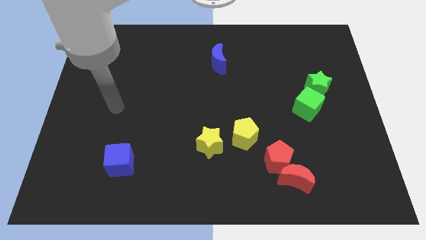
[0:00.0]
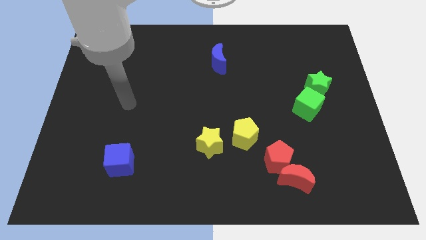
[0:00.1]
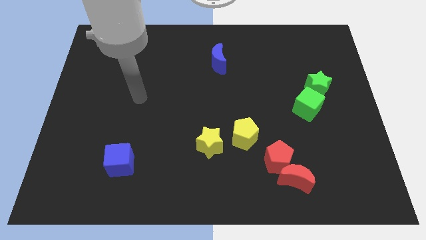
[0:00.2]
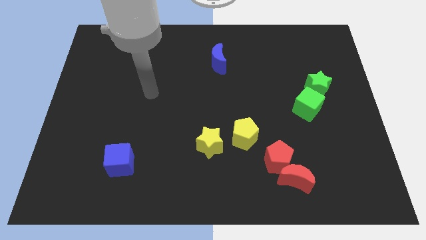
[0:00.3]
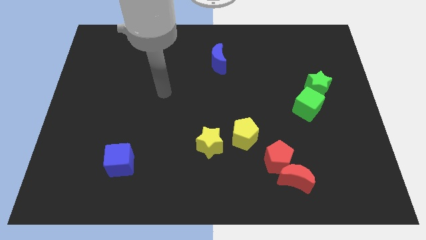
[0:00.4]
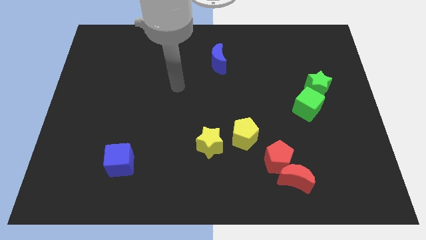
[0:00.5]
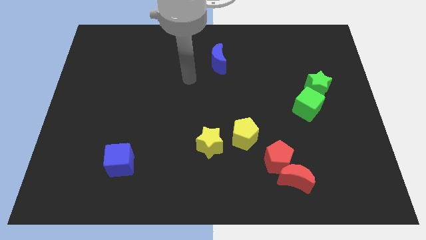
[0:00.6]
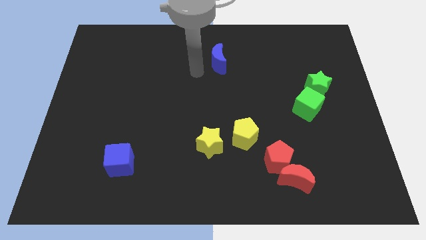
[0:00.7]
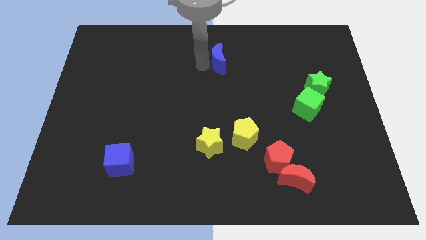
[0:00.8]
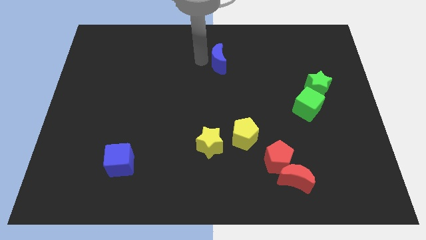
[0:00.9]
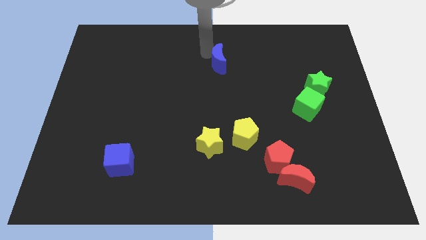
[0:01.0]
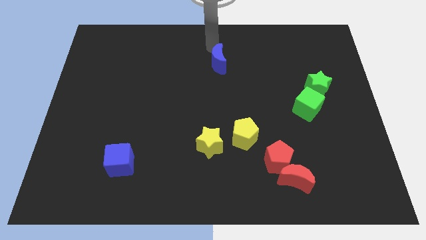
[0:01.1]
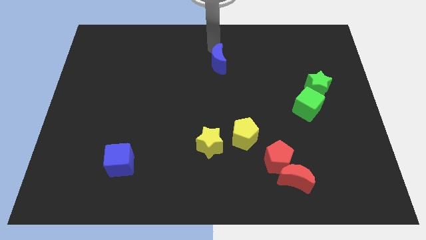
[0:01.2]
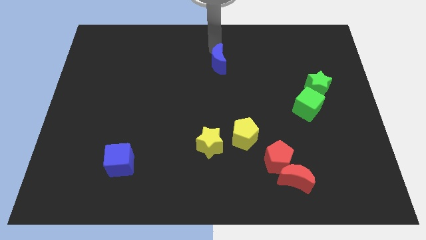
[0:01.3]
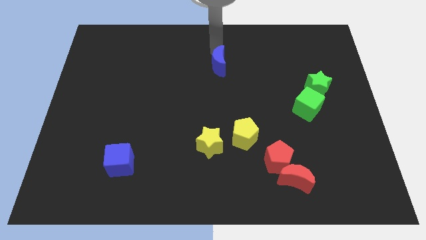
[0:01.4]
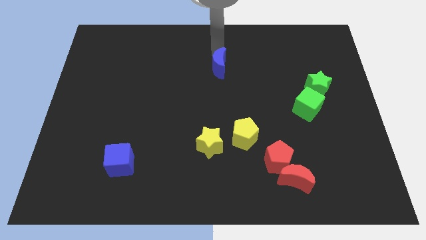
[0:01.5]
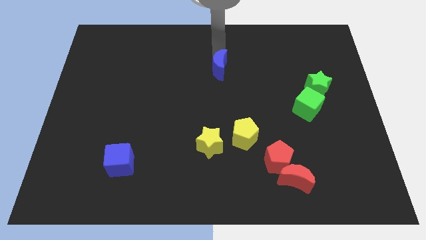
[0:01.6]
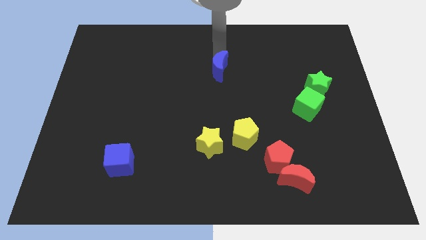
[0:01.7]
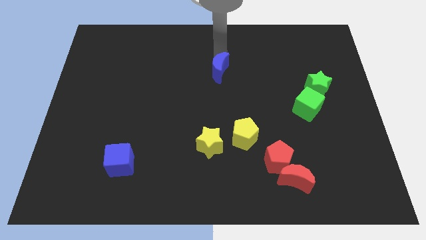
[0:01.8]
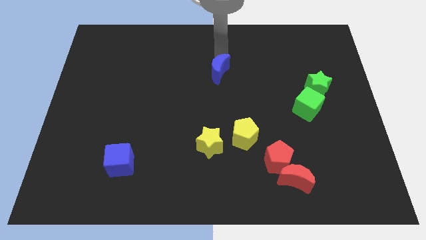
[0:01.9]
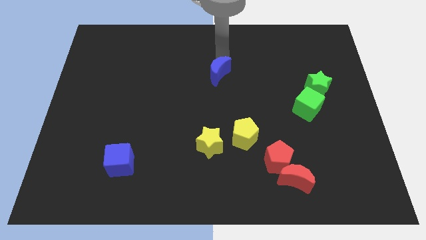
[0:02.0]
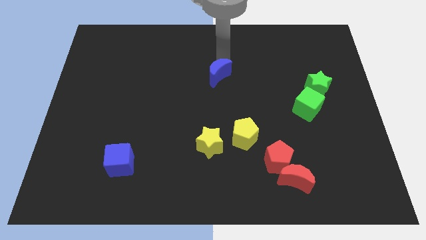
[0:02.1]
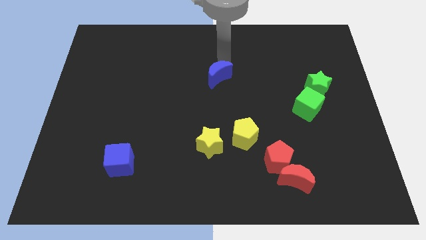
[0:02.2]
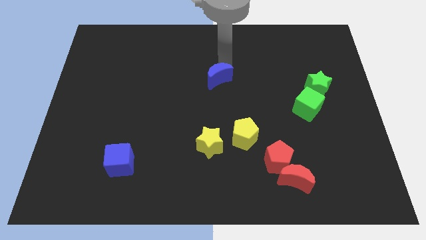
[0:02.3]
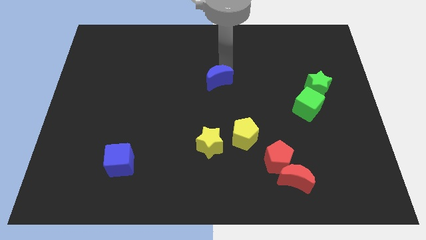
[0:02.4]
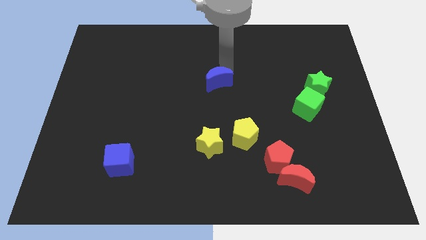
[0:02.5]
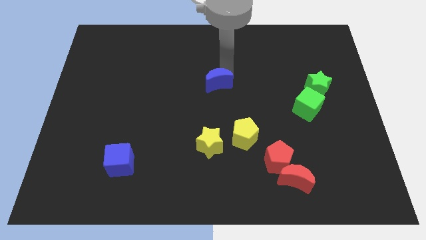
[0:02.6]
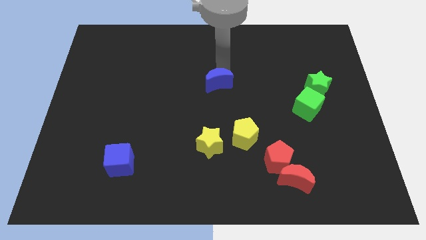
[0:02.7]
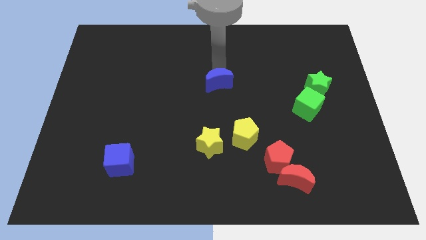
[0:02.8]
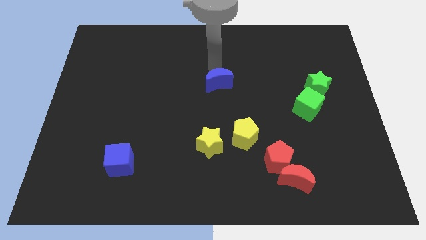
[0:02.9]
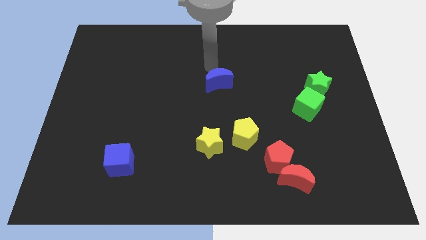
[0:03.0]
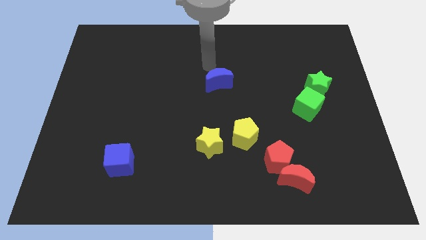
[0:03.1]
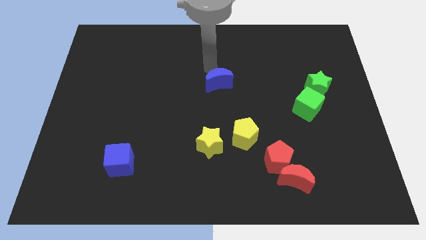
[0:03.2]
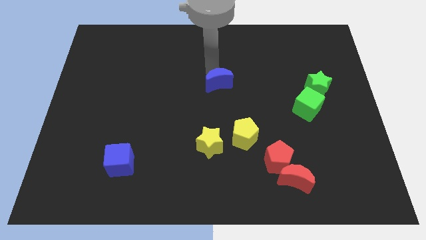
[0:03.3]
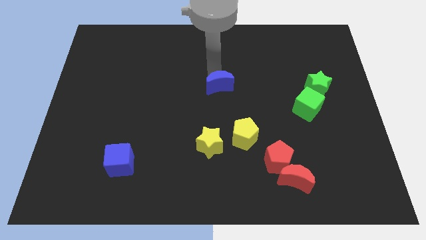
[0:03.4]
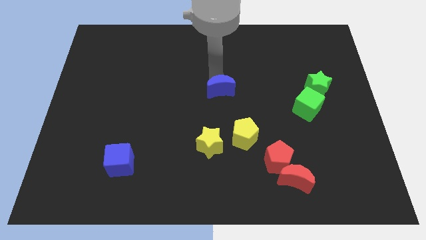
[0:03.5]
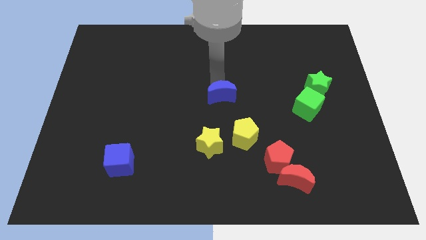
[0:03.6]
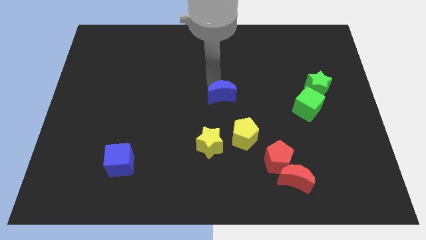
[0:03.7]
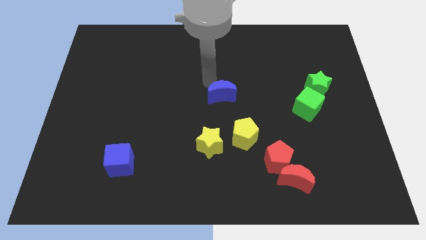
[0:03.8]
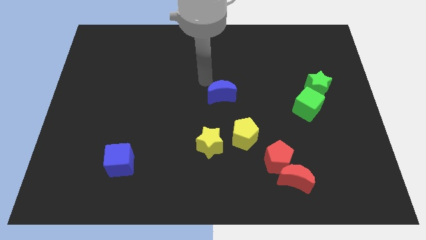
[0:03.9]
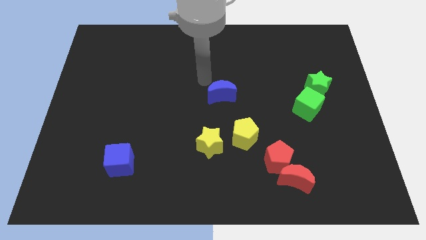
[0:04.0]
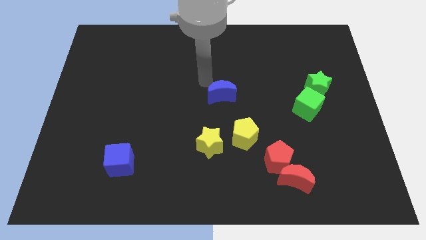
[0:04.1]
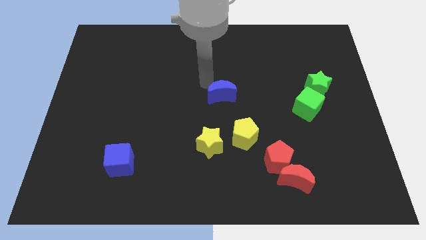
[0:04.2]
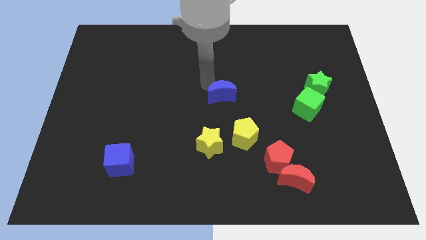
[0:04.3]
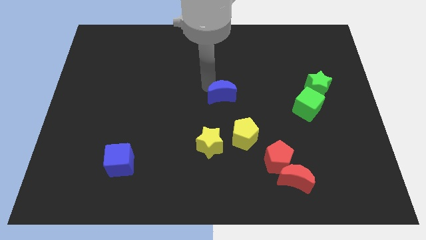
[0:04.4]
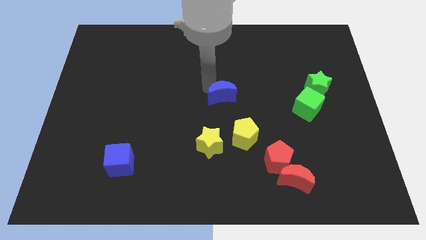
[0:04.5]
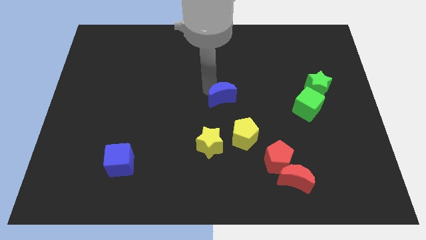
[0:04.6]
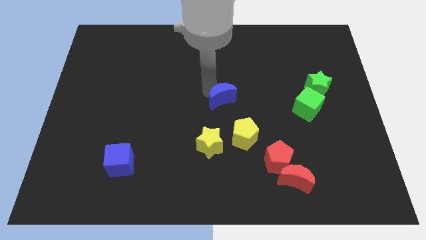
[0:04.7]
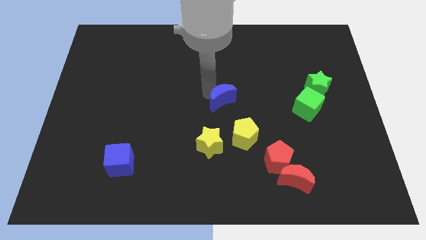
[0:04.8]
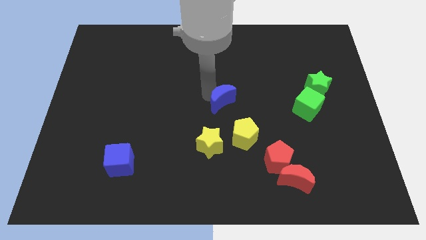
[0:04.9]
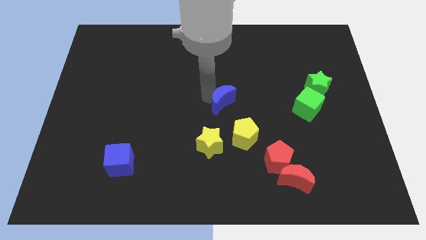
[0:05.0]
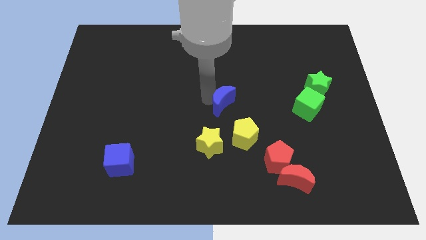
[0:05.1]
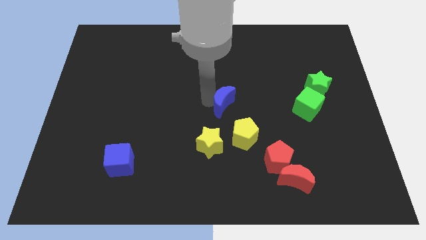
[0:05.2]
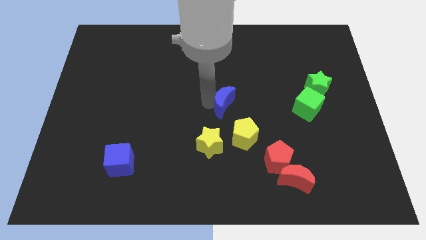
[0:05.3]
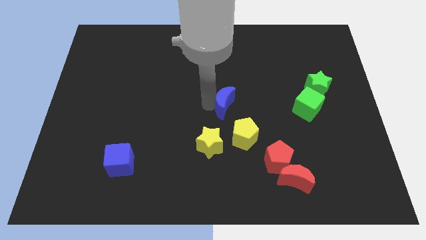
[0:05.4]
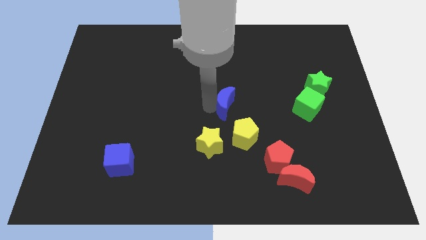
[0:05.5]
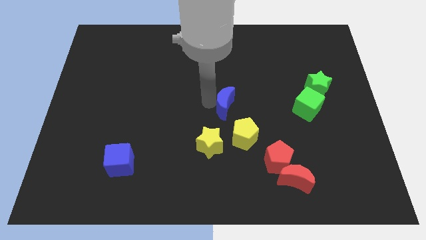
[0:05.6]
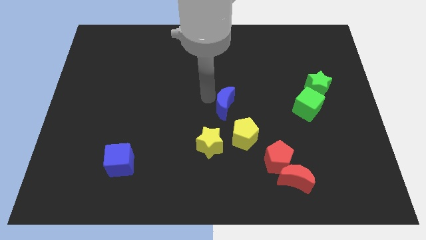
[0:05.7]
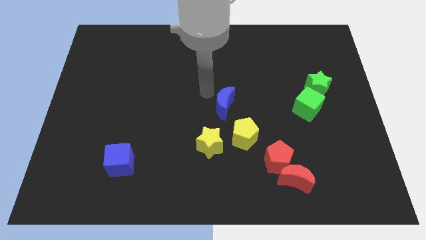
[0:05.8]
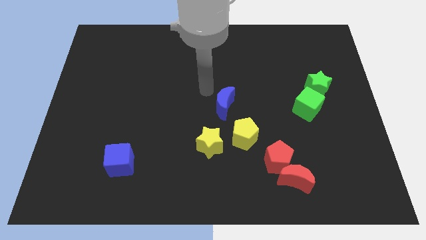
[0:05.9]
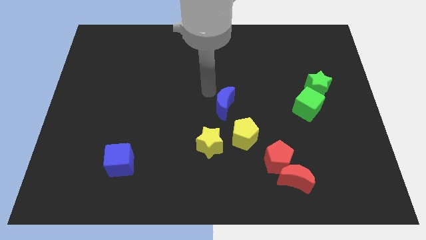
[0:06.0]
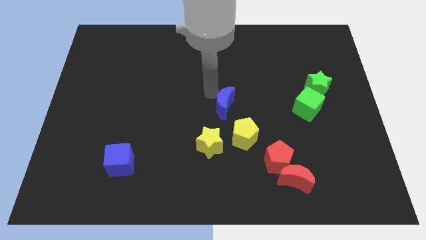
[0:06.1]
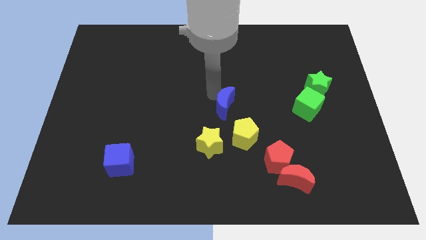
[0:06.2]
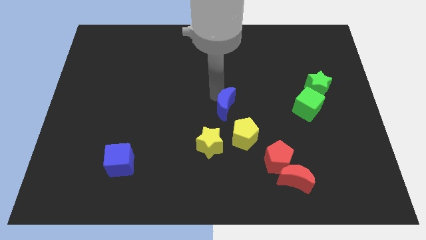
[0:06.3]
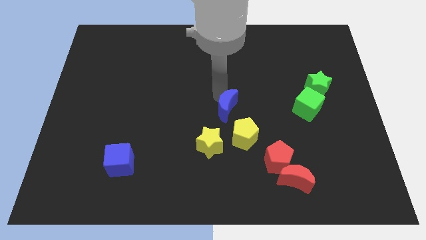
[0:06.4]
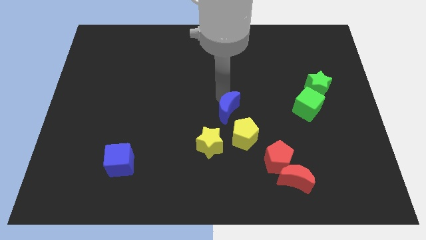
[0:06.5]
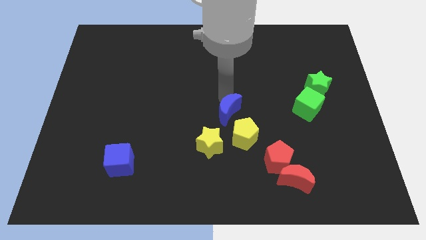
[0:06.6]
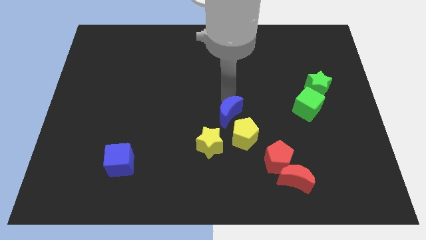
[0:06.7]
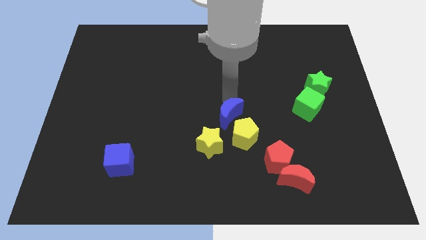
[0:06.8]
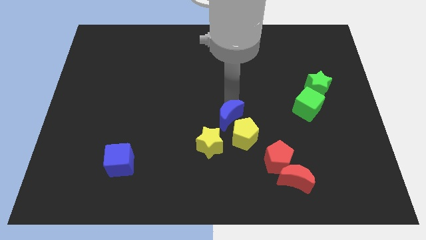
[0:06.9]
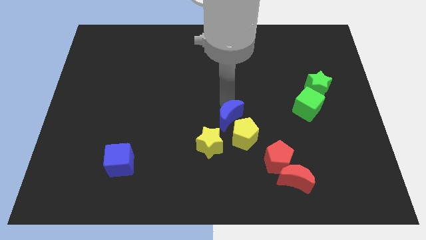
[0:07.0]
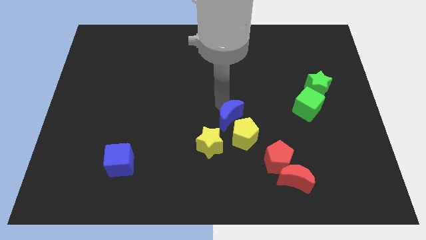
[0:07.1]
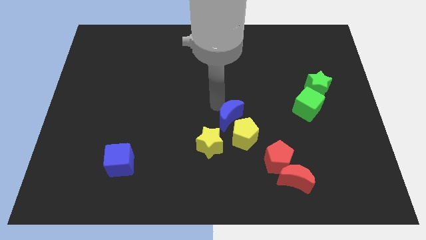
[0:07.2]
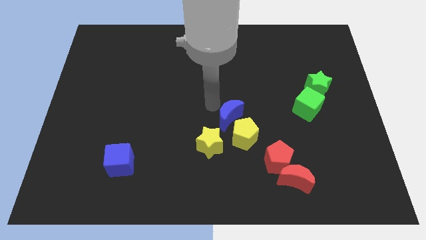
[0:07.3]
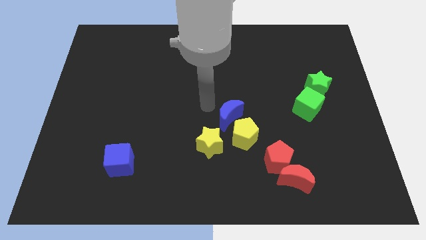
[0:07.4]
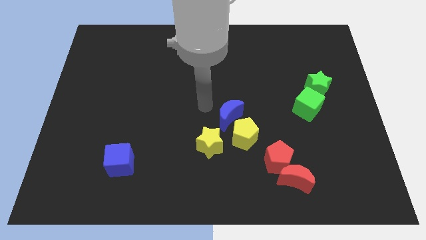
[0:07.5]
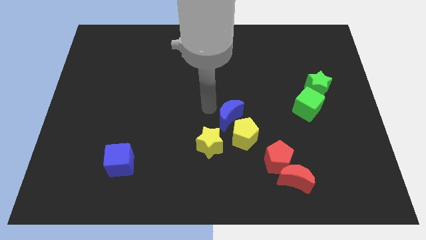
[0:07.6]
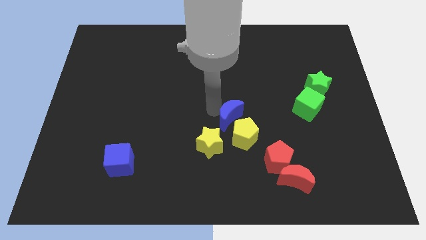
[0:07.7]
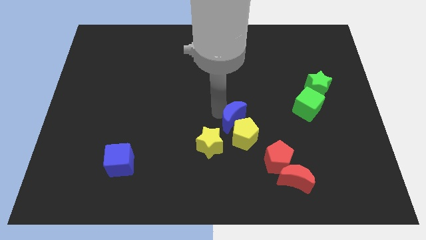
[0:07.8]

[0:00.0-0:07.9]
slide the blue moon next to the yellow pentagon
